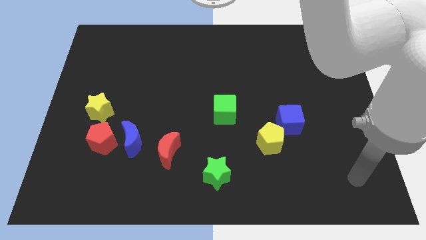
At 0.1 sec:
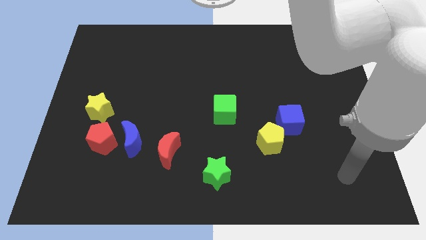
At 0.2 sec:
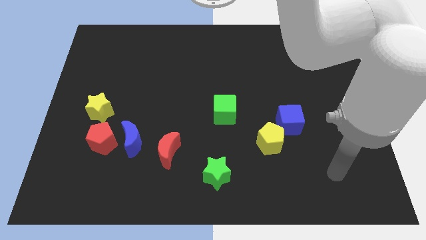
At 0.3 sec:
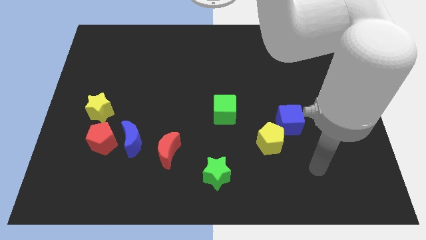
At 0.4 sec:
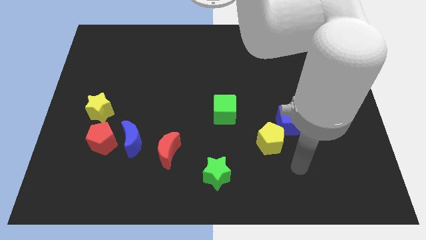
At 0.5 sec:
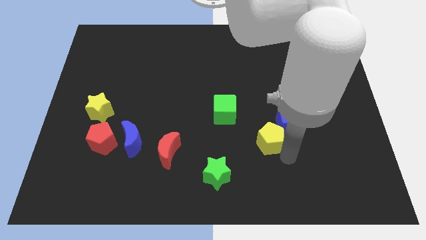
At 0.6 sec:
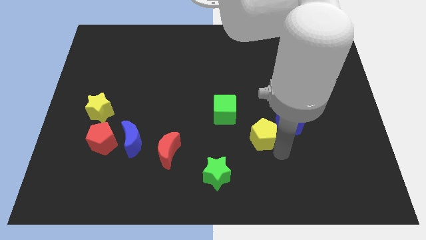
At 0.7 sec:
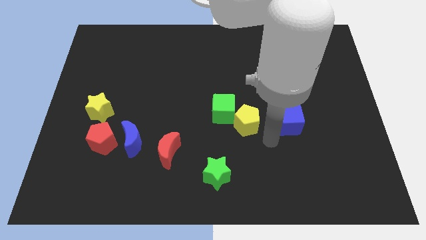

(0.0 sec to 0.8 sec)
pull the blue cube apart from the yellow pentagon

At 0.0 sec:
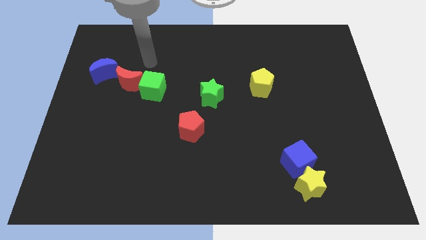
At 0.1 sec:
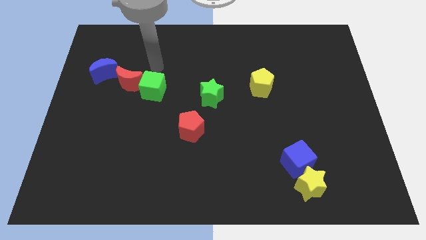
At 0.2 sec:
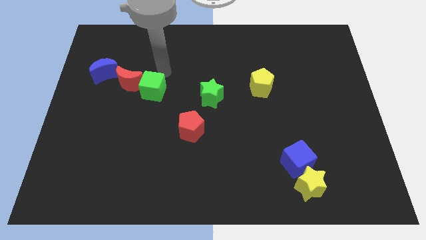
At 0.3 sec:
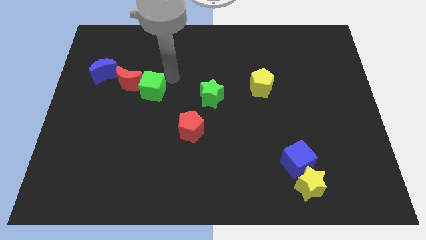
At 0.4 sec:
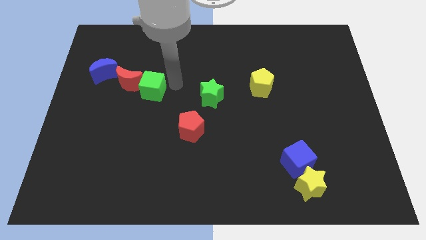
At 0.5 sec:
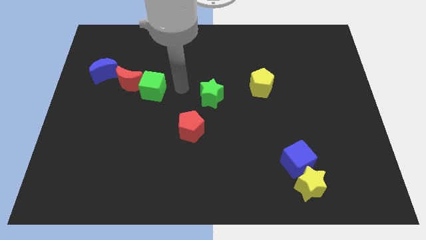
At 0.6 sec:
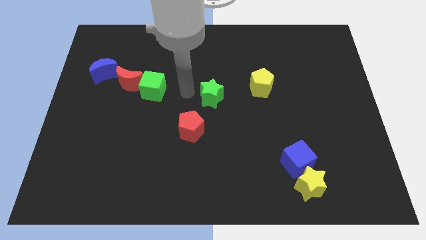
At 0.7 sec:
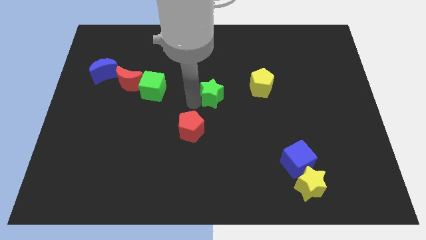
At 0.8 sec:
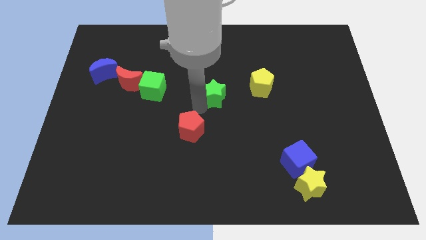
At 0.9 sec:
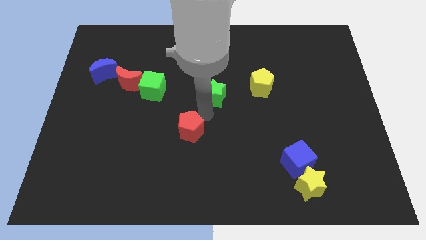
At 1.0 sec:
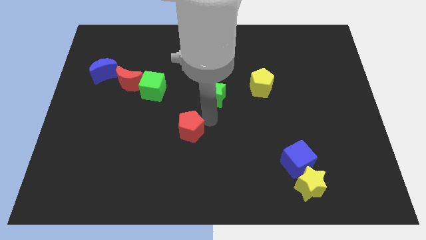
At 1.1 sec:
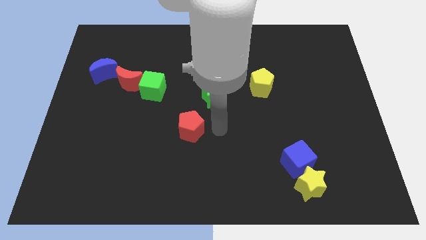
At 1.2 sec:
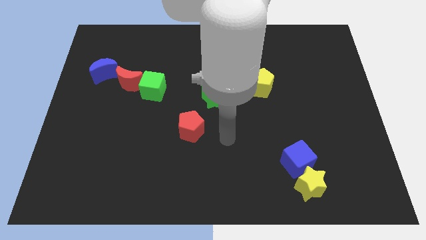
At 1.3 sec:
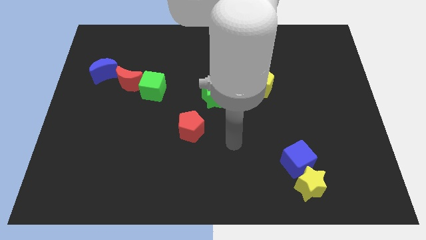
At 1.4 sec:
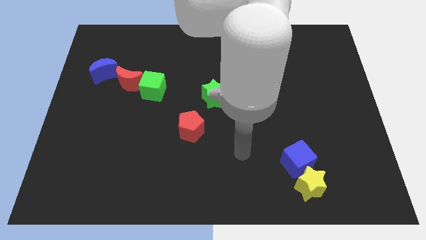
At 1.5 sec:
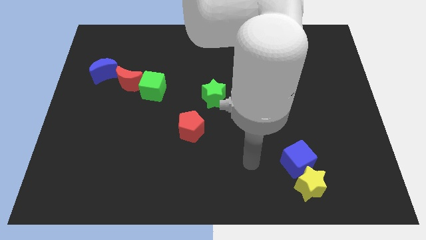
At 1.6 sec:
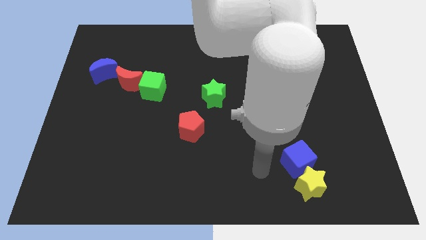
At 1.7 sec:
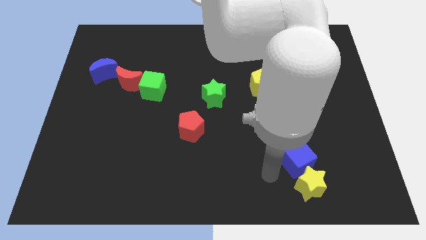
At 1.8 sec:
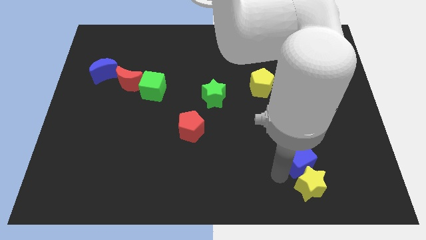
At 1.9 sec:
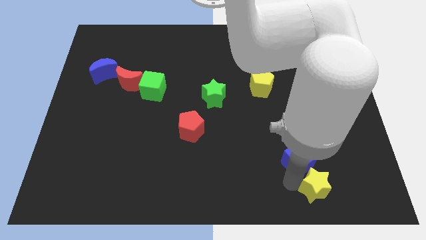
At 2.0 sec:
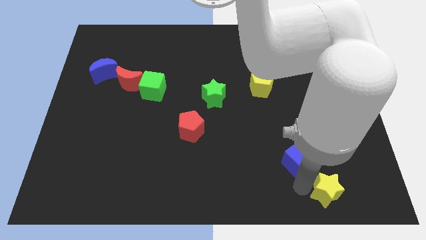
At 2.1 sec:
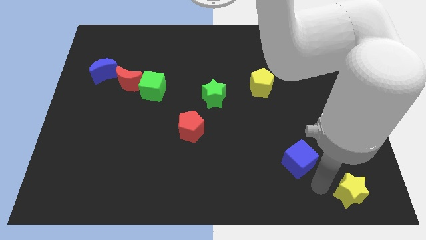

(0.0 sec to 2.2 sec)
pull the blue cube apart from the yellow star

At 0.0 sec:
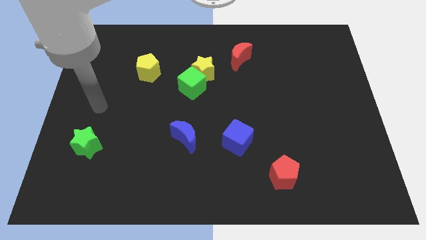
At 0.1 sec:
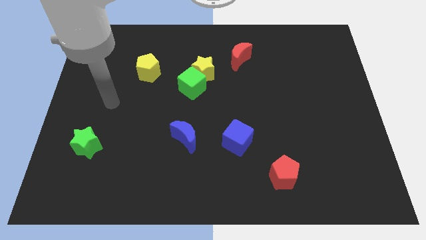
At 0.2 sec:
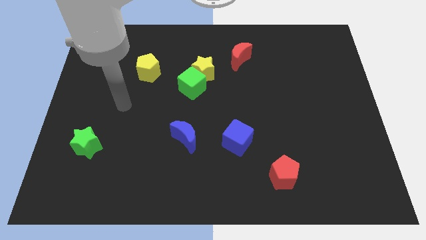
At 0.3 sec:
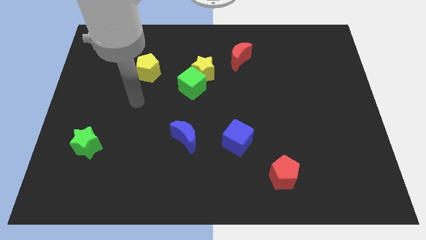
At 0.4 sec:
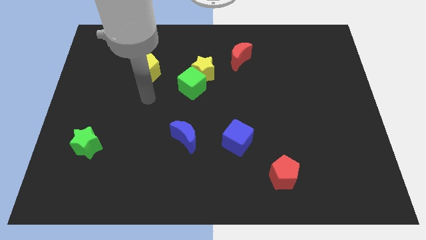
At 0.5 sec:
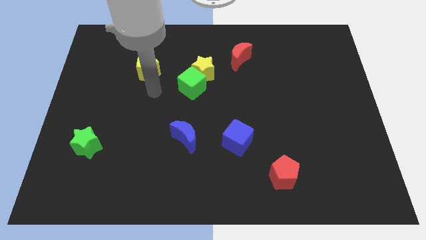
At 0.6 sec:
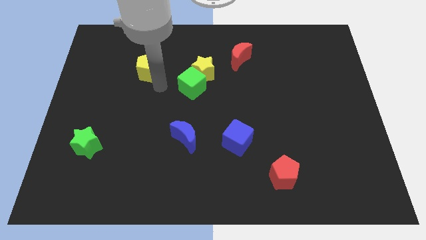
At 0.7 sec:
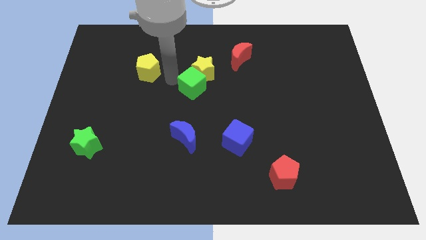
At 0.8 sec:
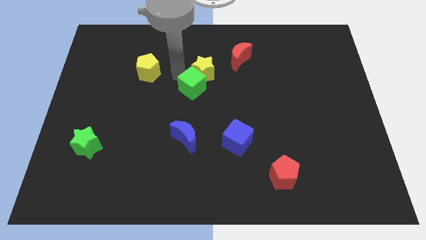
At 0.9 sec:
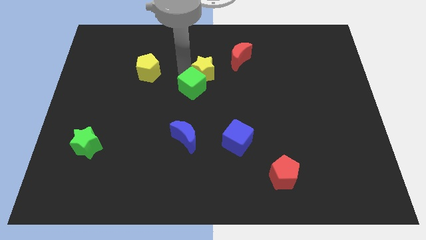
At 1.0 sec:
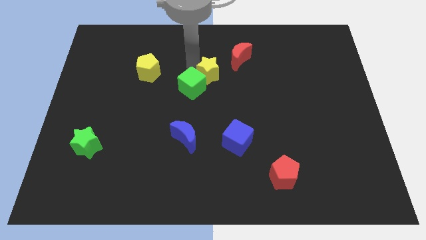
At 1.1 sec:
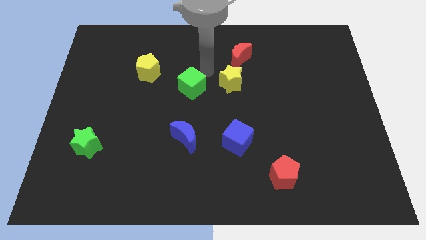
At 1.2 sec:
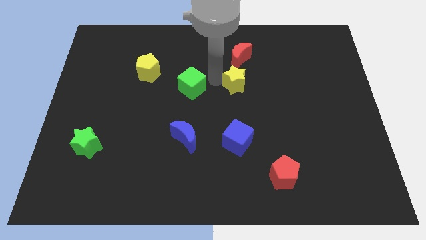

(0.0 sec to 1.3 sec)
move the green cube away from the yellow star

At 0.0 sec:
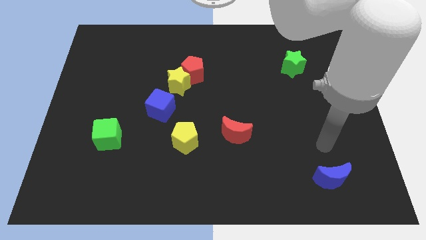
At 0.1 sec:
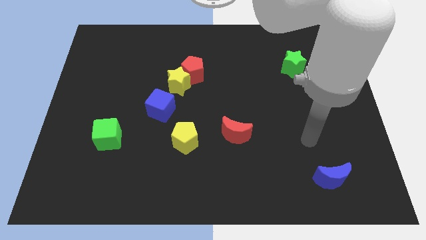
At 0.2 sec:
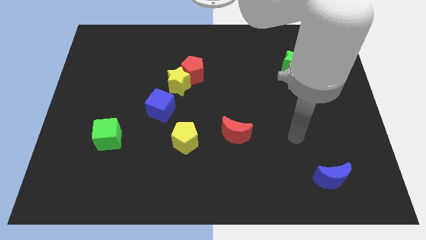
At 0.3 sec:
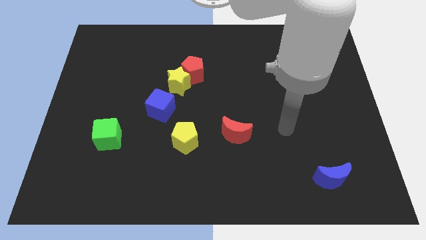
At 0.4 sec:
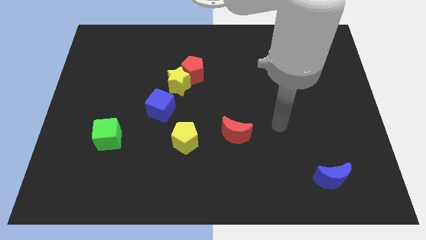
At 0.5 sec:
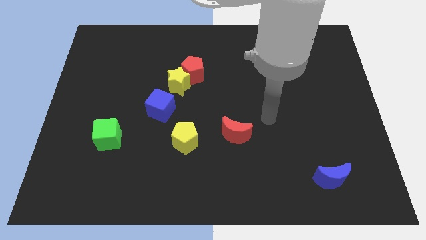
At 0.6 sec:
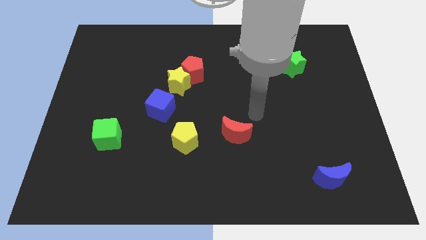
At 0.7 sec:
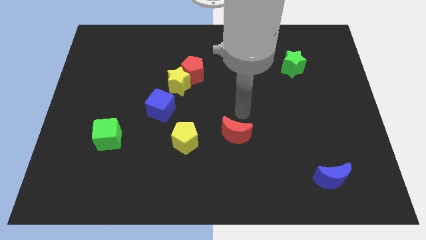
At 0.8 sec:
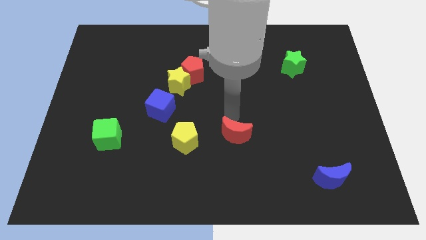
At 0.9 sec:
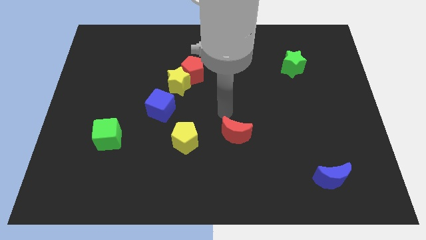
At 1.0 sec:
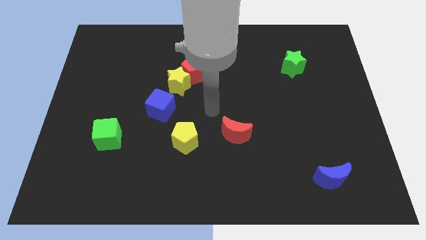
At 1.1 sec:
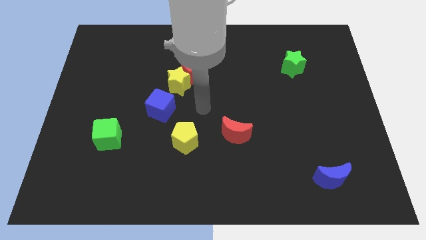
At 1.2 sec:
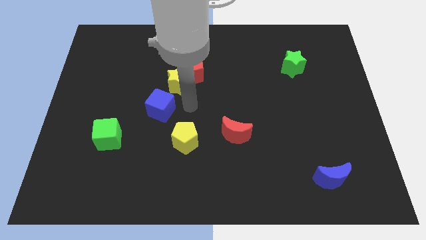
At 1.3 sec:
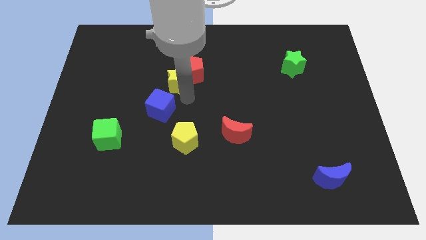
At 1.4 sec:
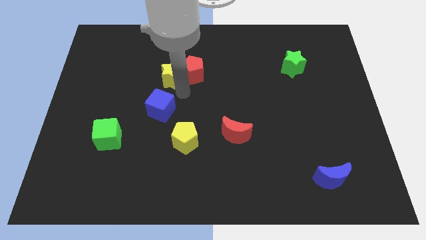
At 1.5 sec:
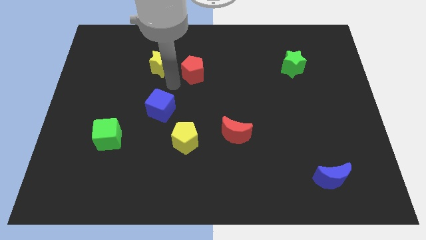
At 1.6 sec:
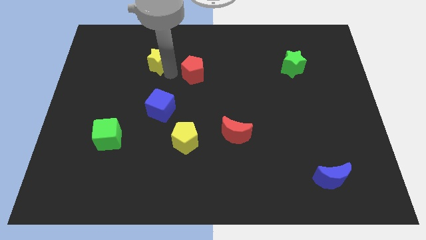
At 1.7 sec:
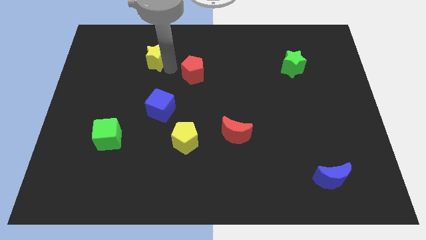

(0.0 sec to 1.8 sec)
separate the red pentagon from the yellow star

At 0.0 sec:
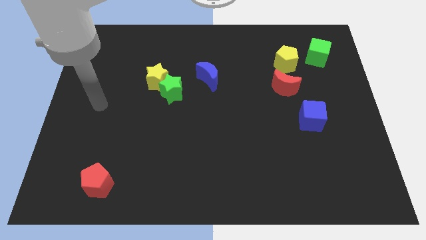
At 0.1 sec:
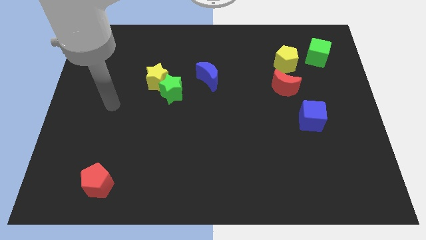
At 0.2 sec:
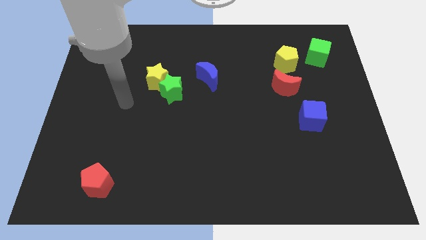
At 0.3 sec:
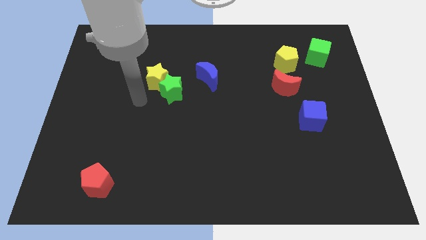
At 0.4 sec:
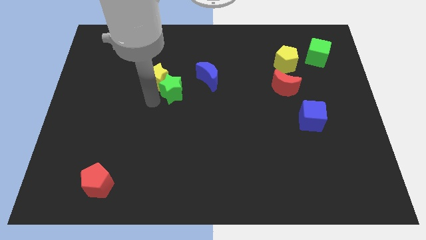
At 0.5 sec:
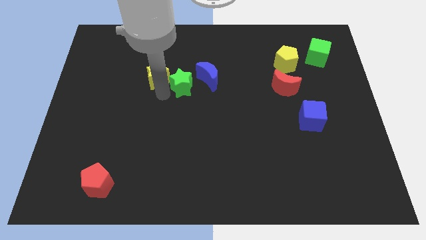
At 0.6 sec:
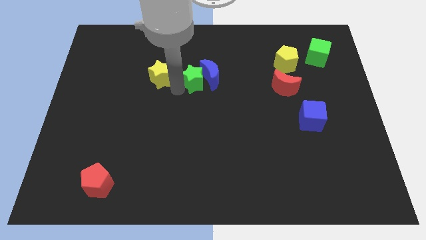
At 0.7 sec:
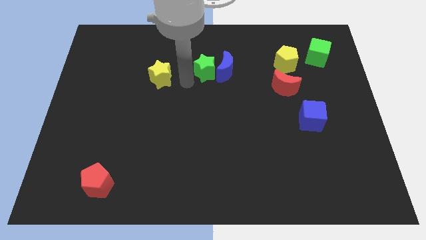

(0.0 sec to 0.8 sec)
pull the yellow star apart from the green star

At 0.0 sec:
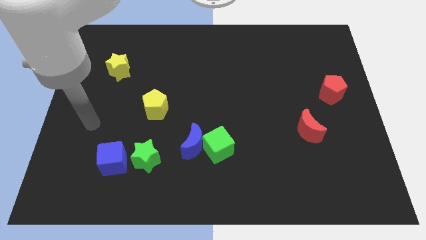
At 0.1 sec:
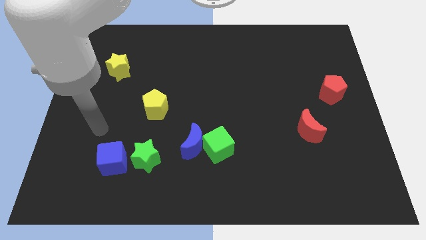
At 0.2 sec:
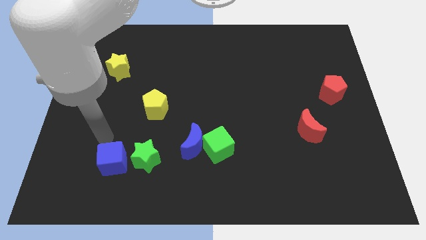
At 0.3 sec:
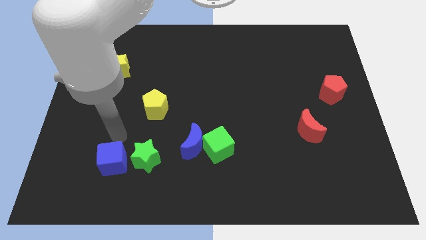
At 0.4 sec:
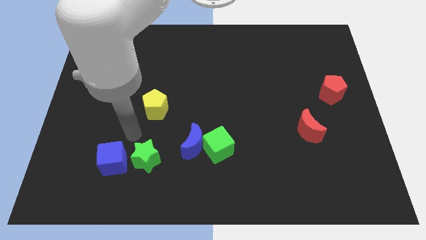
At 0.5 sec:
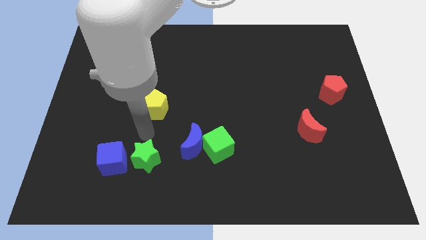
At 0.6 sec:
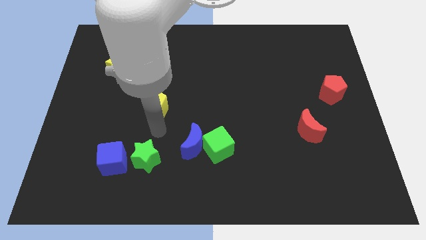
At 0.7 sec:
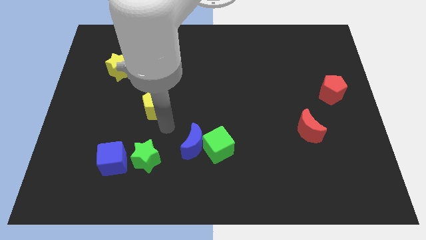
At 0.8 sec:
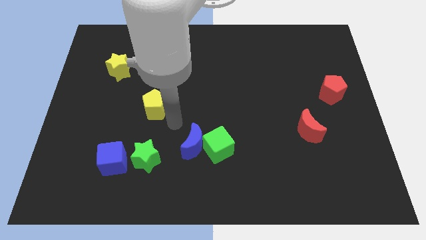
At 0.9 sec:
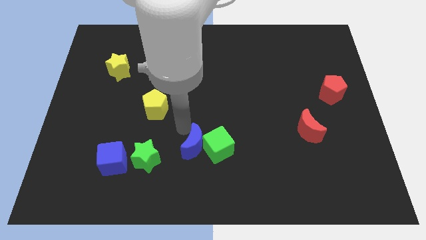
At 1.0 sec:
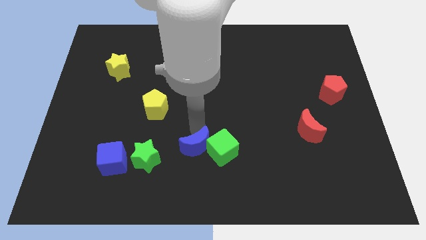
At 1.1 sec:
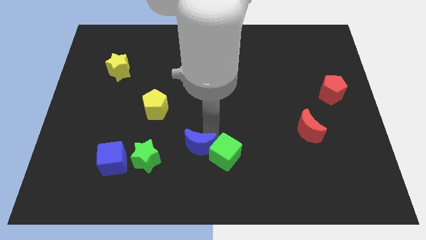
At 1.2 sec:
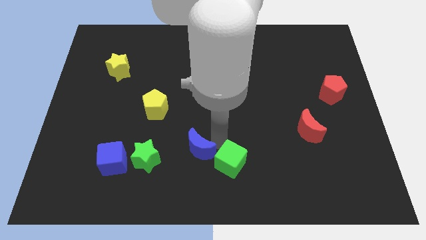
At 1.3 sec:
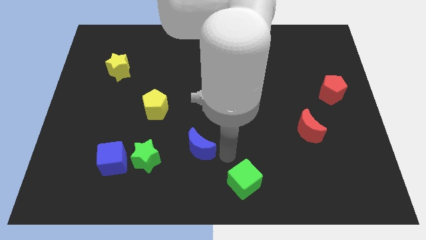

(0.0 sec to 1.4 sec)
separate the blue moon from the green cube

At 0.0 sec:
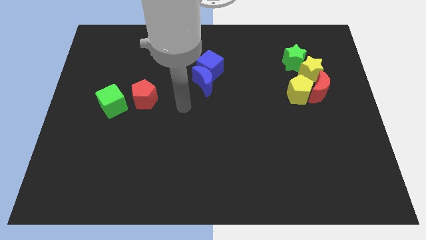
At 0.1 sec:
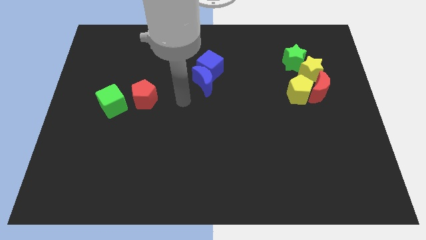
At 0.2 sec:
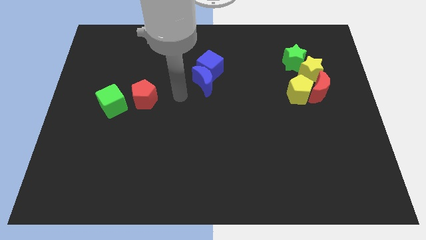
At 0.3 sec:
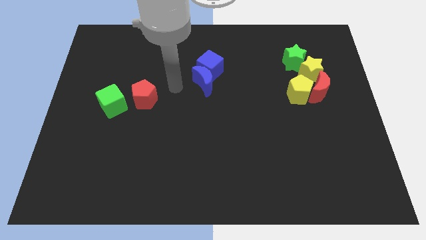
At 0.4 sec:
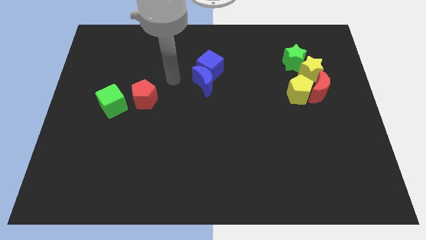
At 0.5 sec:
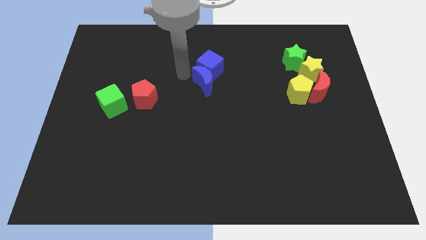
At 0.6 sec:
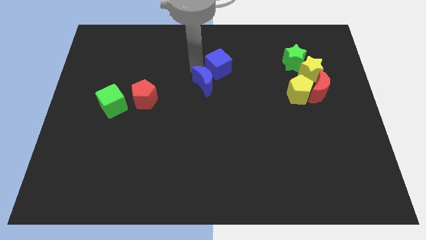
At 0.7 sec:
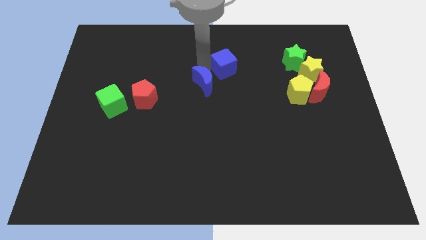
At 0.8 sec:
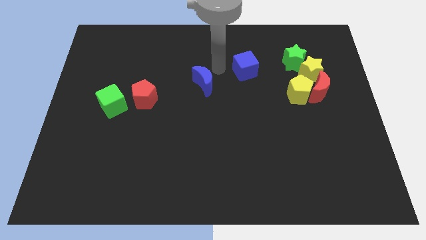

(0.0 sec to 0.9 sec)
move the blue moon away from the blue cube

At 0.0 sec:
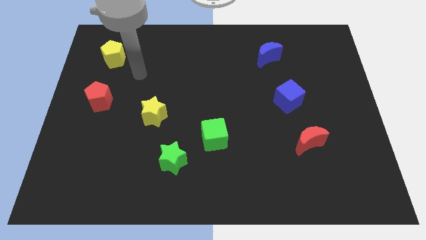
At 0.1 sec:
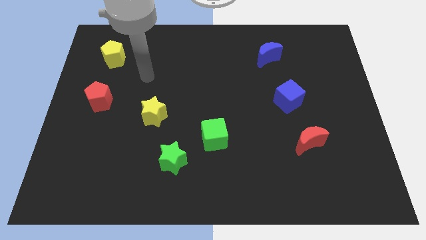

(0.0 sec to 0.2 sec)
separate the green cube from the green star

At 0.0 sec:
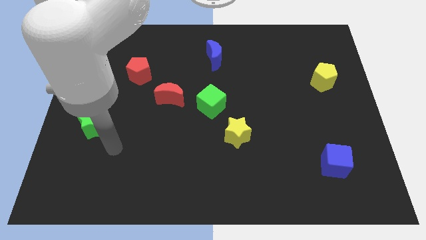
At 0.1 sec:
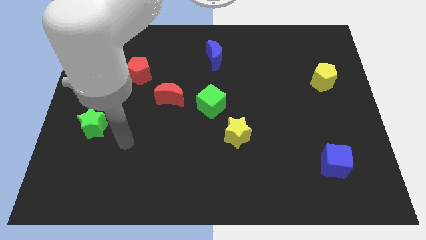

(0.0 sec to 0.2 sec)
pull the red moon apart from the green cube
